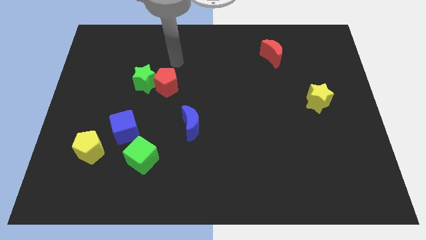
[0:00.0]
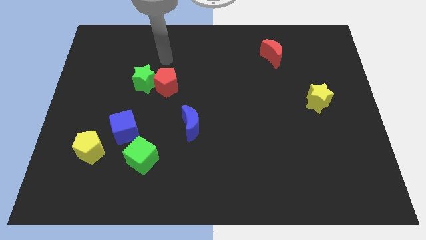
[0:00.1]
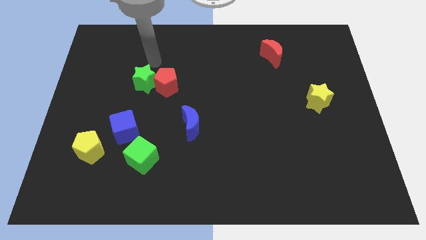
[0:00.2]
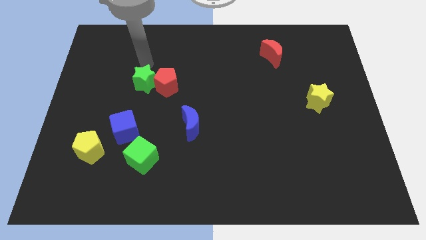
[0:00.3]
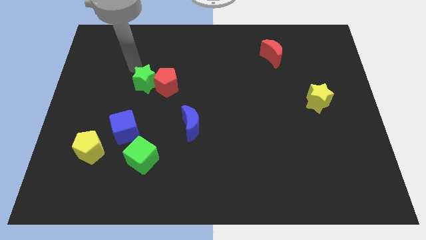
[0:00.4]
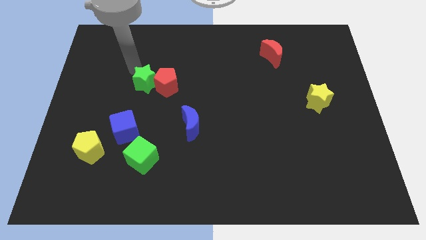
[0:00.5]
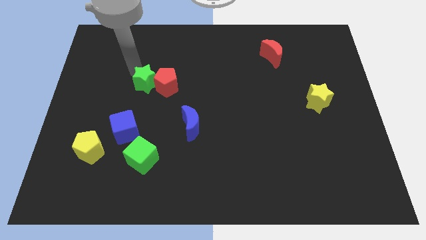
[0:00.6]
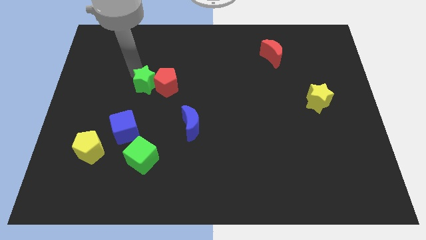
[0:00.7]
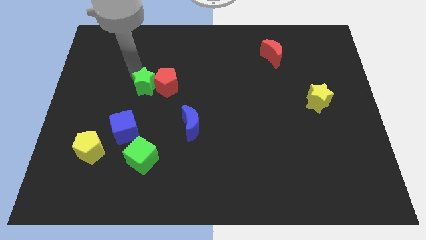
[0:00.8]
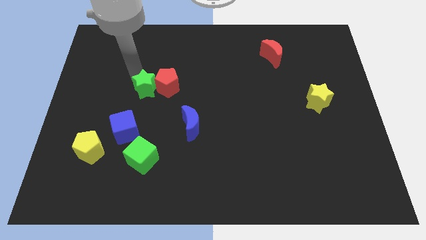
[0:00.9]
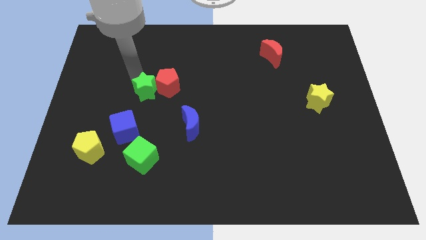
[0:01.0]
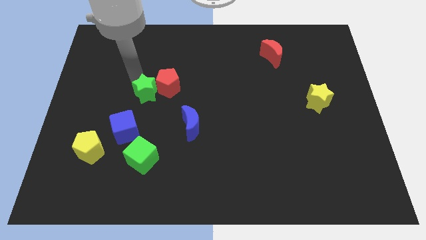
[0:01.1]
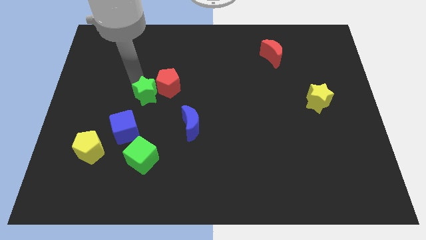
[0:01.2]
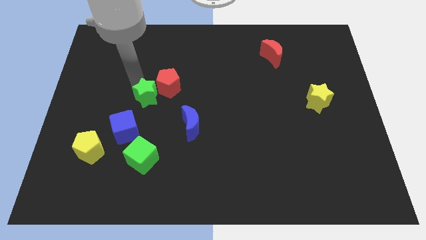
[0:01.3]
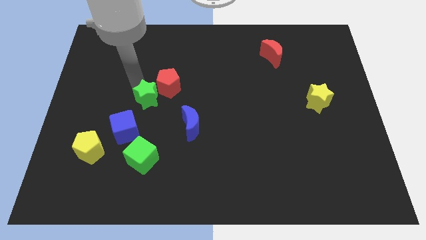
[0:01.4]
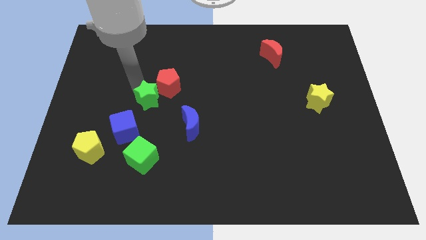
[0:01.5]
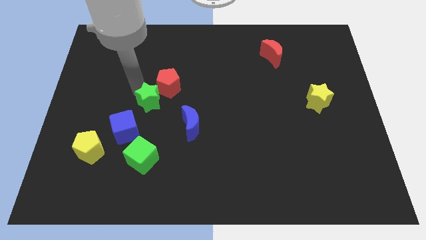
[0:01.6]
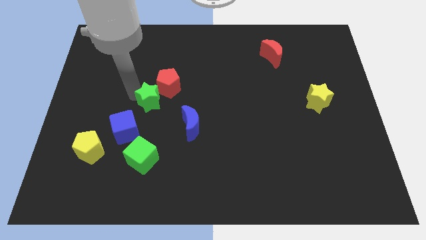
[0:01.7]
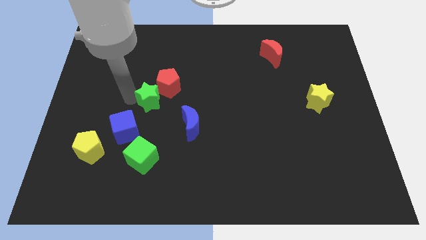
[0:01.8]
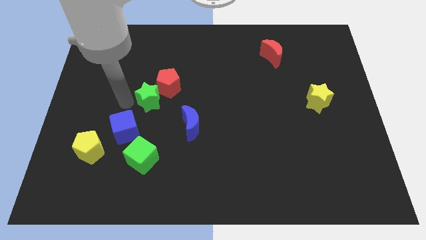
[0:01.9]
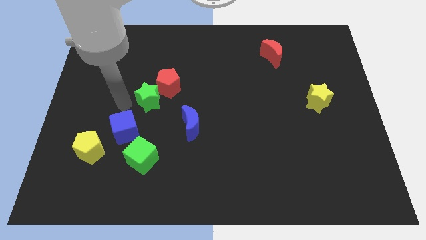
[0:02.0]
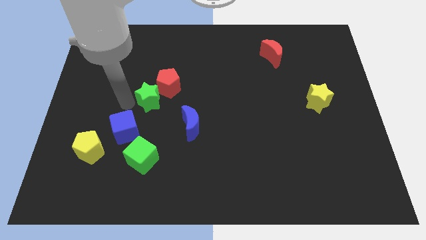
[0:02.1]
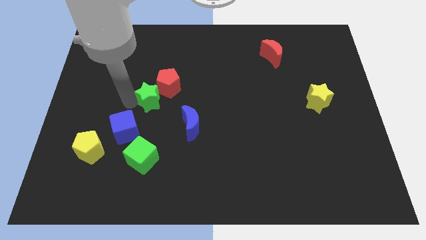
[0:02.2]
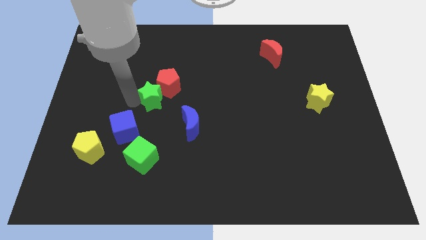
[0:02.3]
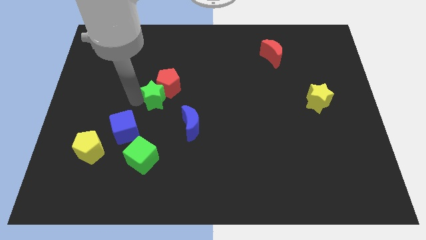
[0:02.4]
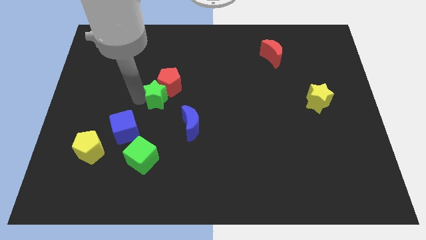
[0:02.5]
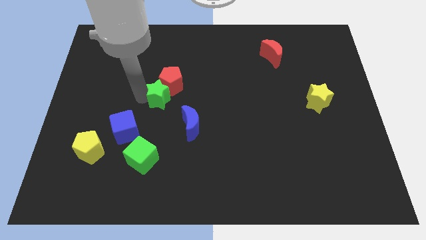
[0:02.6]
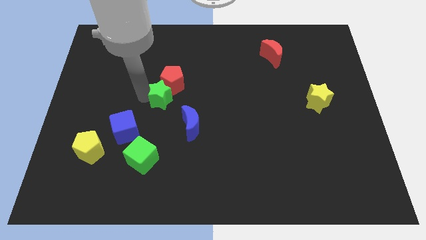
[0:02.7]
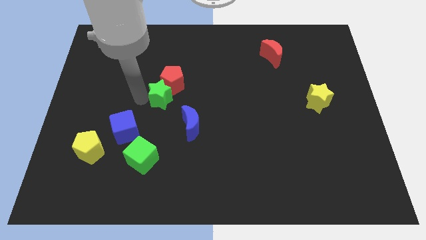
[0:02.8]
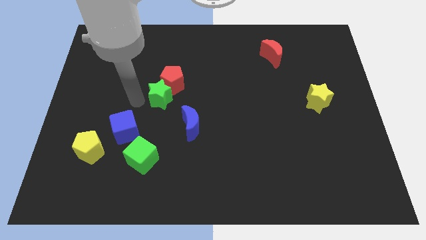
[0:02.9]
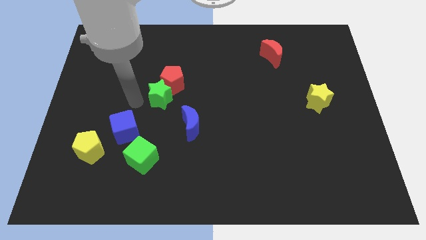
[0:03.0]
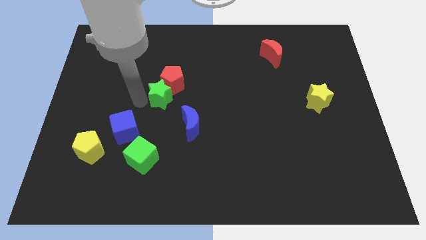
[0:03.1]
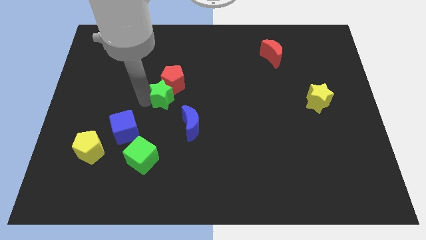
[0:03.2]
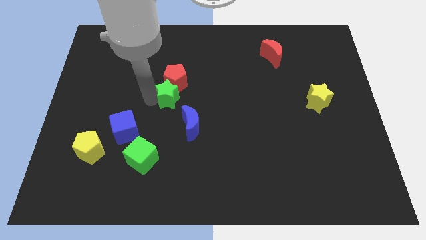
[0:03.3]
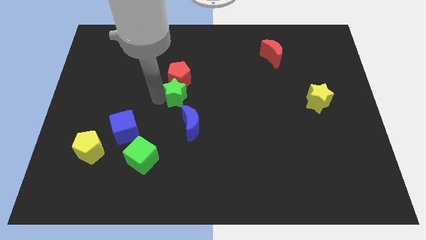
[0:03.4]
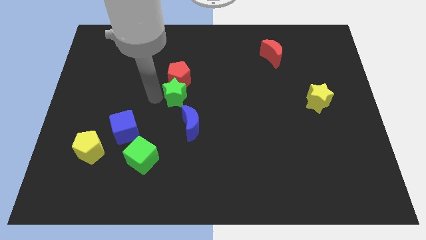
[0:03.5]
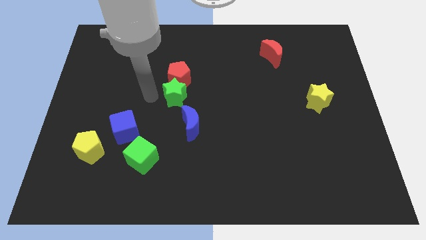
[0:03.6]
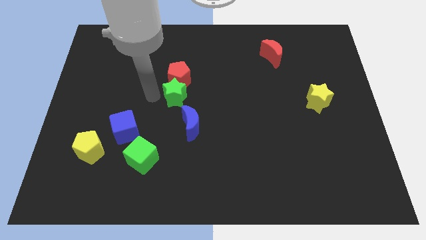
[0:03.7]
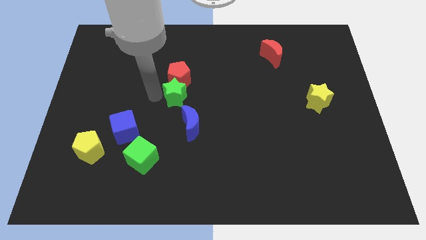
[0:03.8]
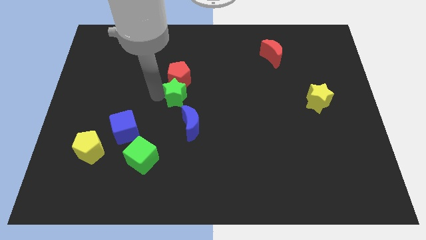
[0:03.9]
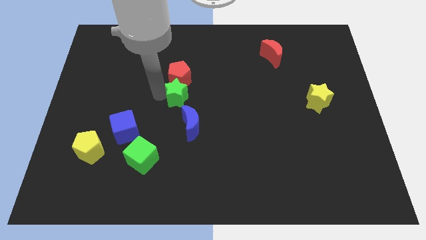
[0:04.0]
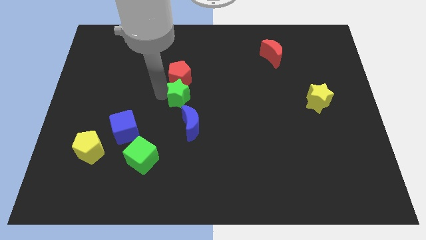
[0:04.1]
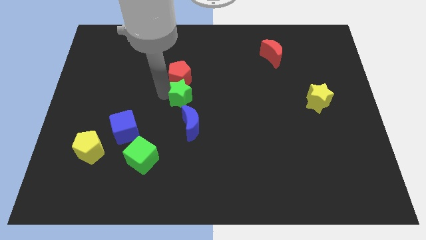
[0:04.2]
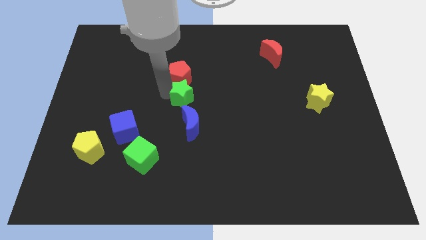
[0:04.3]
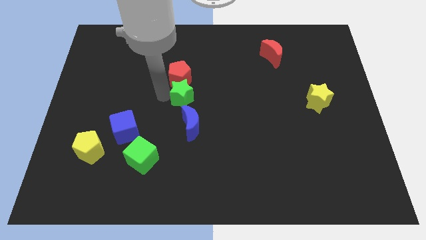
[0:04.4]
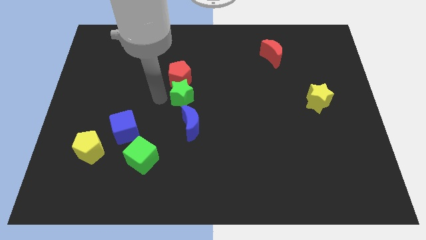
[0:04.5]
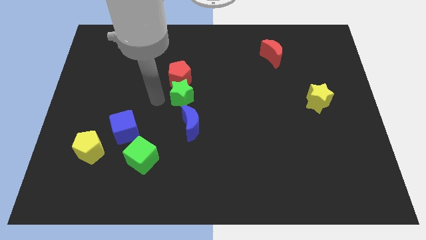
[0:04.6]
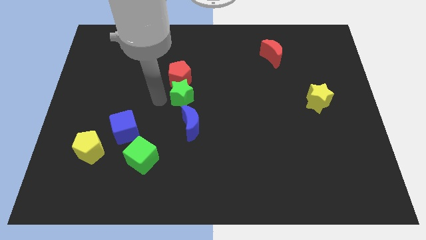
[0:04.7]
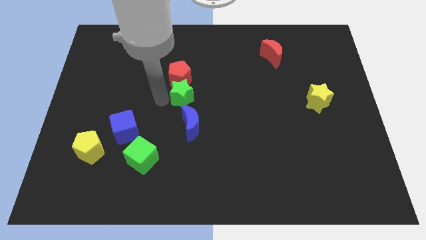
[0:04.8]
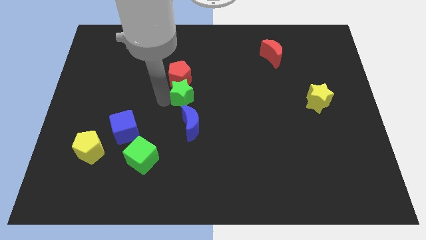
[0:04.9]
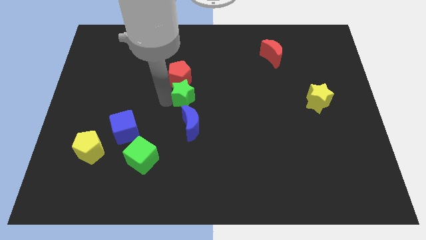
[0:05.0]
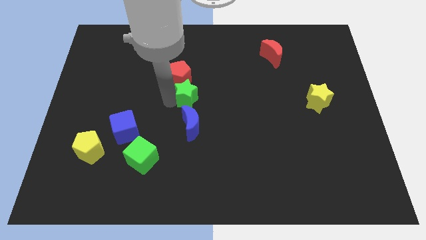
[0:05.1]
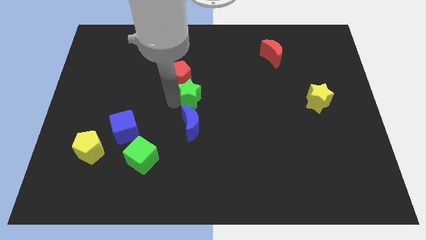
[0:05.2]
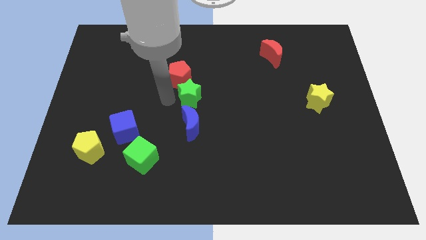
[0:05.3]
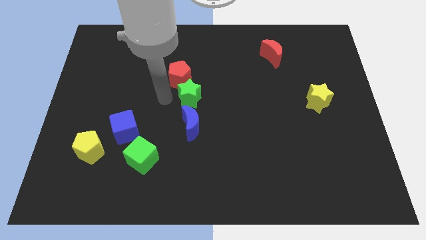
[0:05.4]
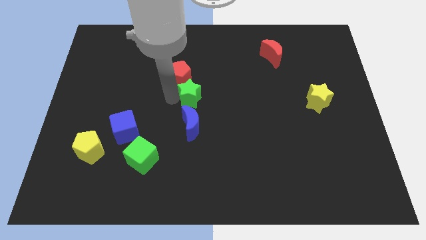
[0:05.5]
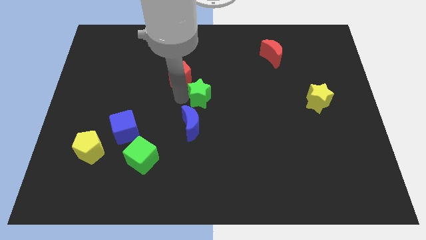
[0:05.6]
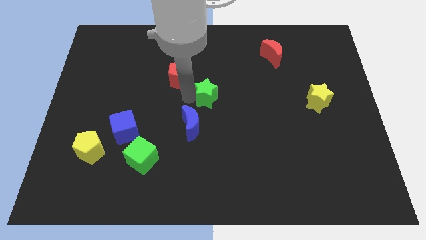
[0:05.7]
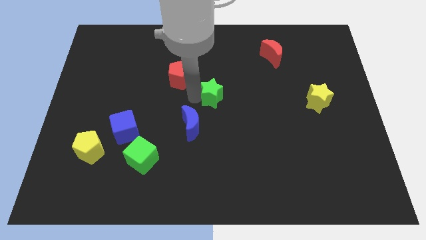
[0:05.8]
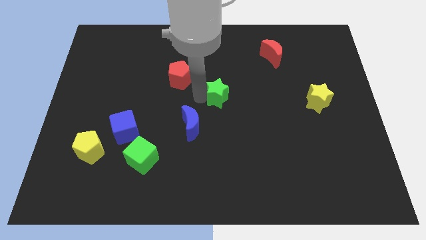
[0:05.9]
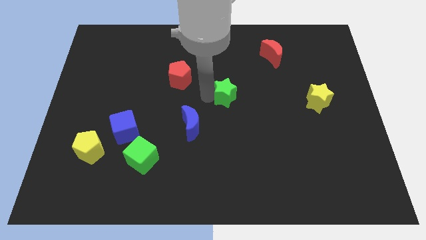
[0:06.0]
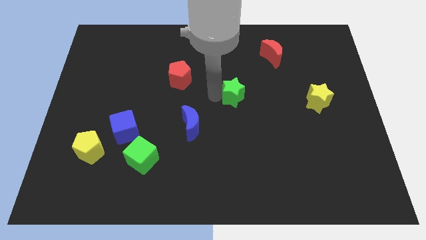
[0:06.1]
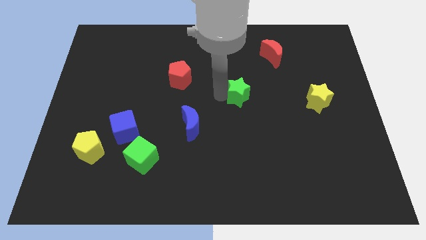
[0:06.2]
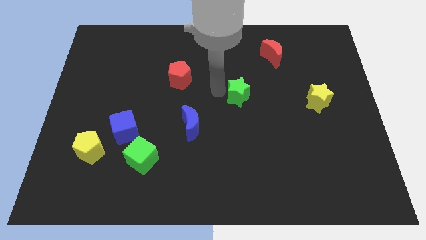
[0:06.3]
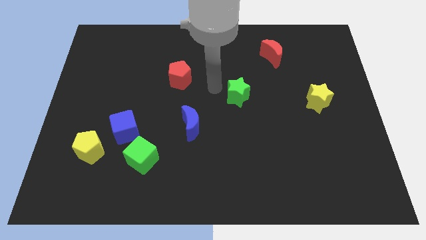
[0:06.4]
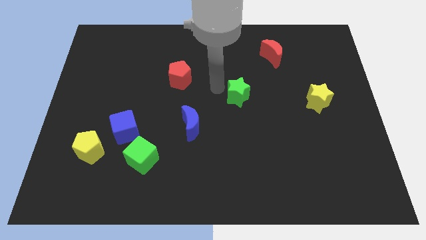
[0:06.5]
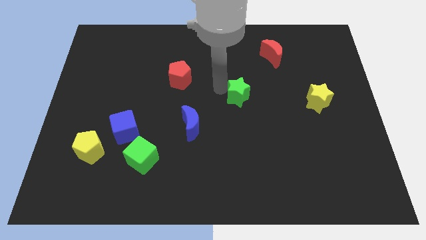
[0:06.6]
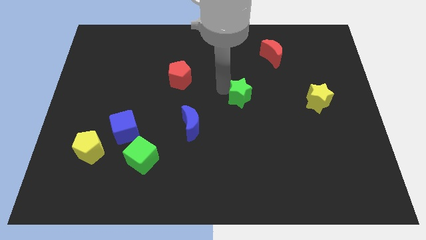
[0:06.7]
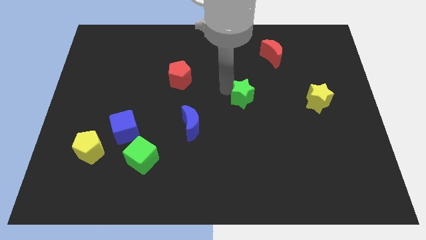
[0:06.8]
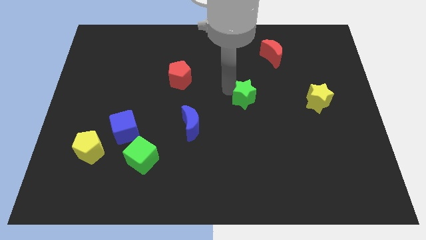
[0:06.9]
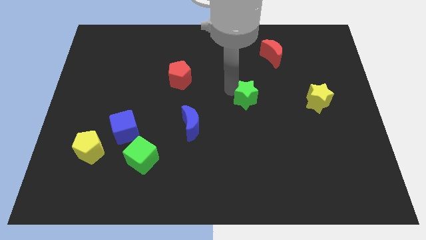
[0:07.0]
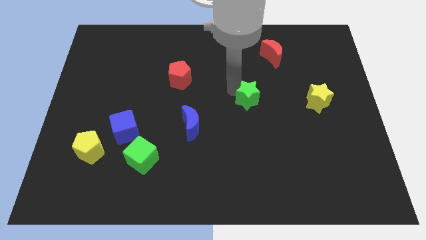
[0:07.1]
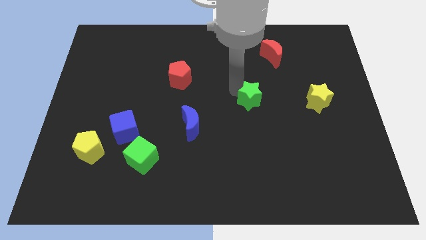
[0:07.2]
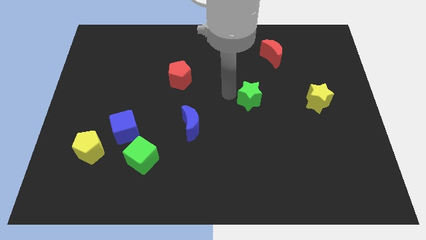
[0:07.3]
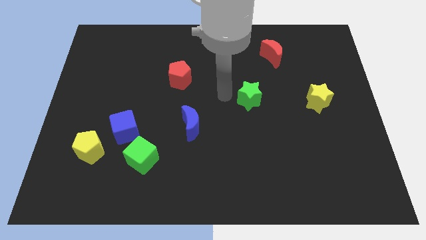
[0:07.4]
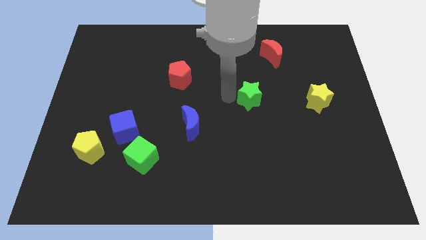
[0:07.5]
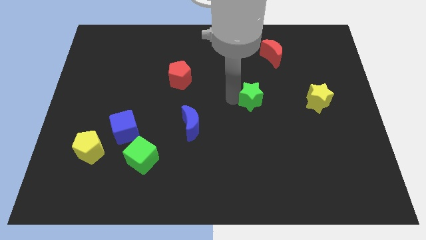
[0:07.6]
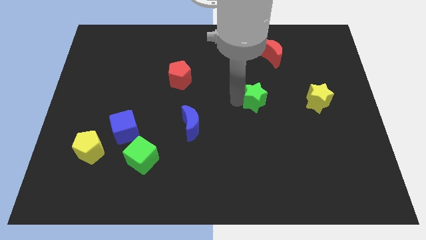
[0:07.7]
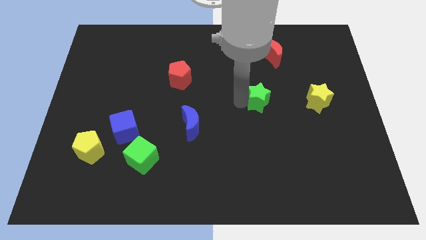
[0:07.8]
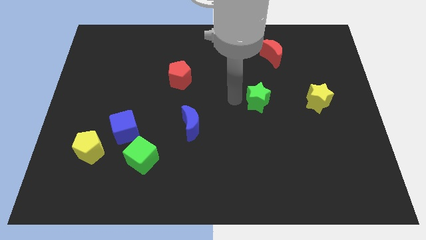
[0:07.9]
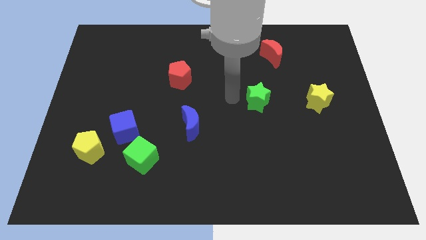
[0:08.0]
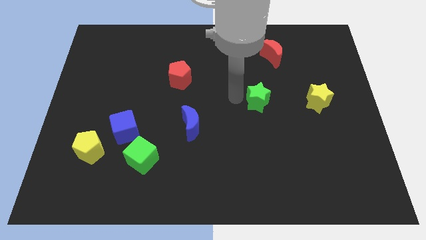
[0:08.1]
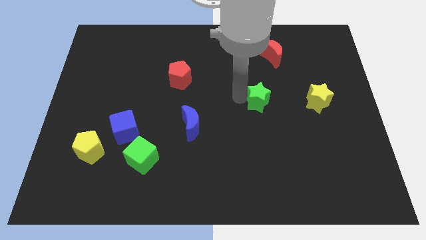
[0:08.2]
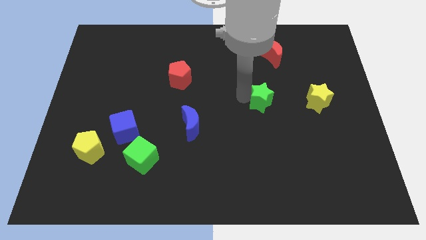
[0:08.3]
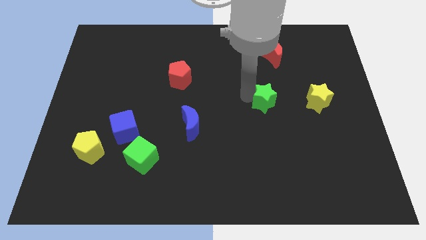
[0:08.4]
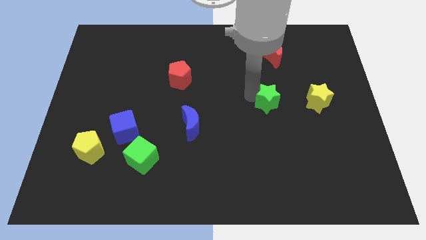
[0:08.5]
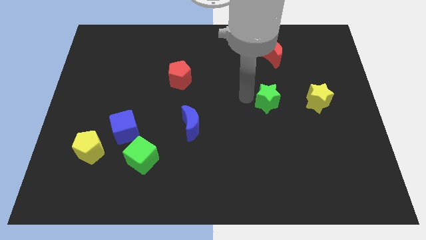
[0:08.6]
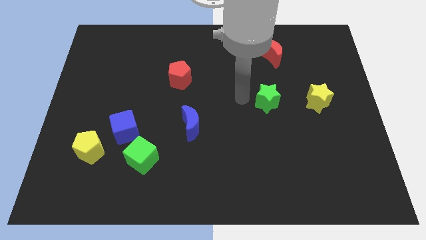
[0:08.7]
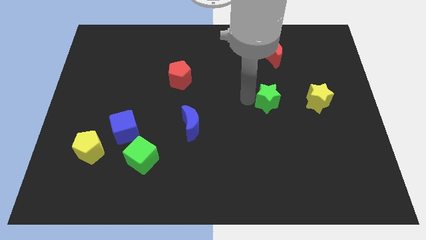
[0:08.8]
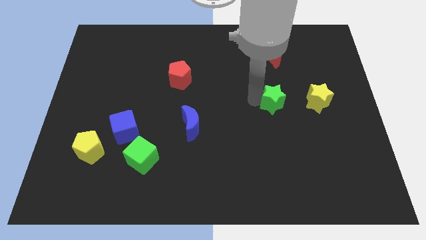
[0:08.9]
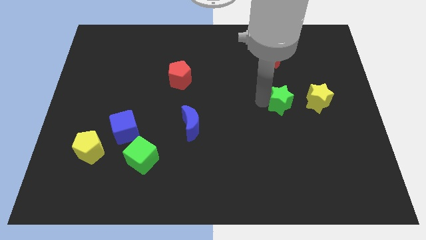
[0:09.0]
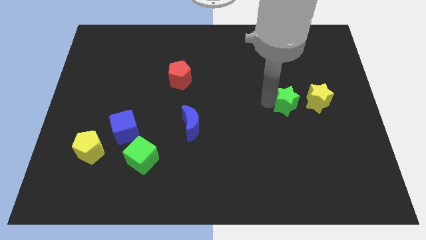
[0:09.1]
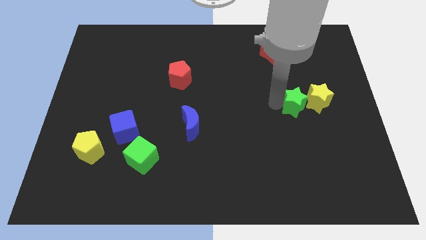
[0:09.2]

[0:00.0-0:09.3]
push the green star next to the yellow star
